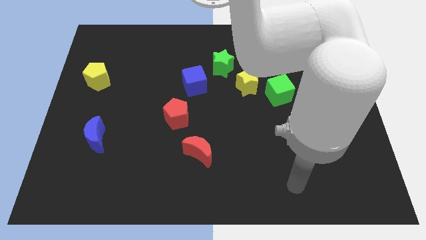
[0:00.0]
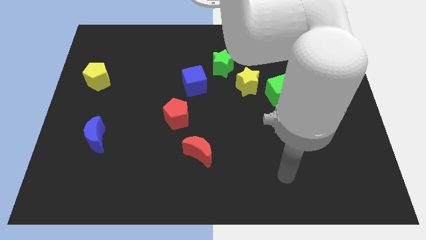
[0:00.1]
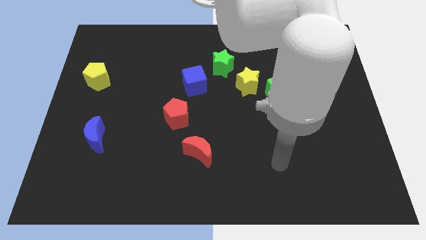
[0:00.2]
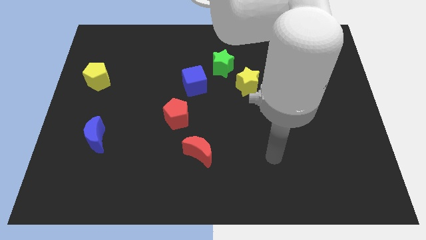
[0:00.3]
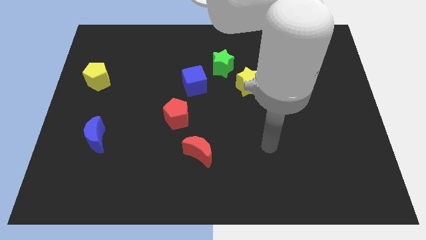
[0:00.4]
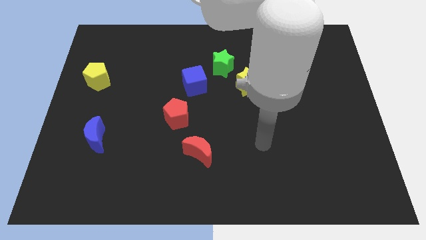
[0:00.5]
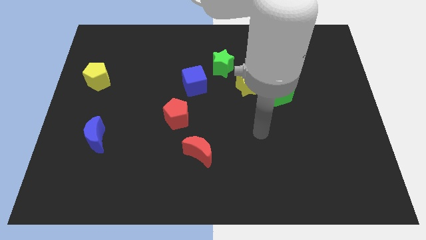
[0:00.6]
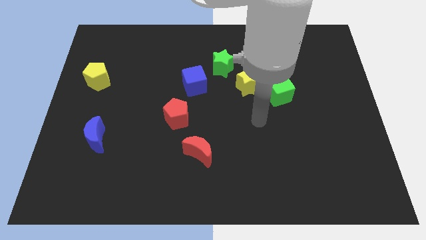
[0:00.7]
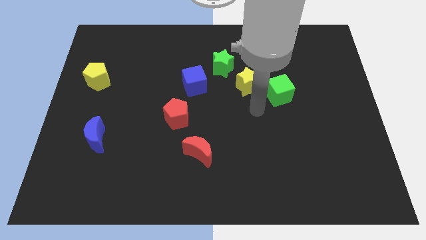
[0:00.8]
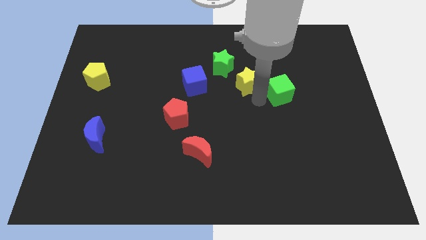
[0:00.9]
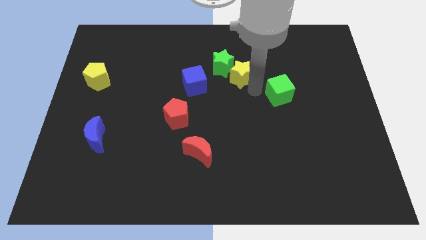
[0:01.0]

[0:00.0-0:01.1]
separate the green cube from the yellow star

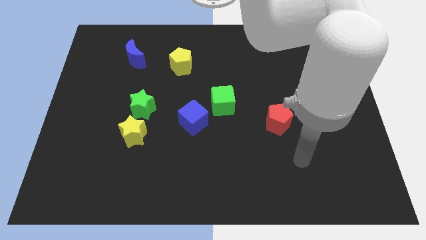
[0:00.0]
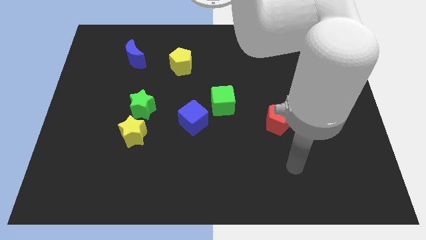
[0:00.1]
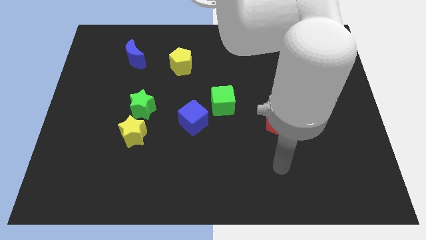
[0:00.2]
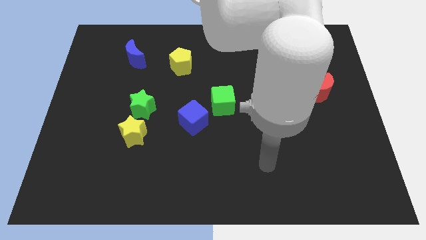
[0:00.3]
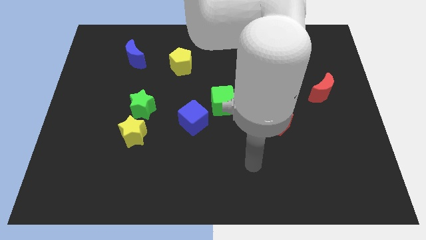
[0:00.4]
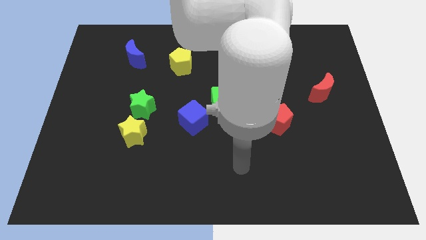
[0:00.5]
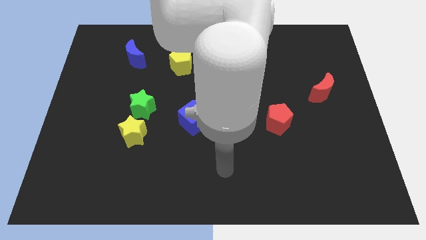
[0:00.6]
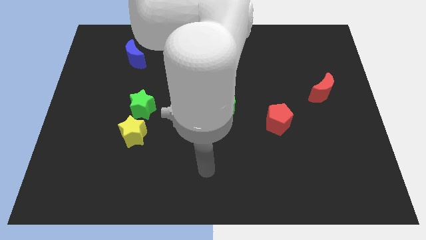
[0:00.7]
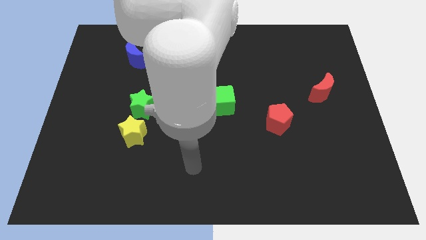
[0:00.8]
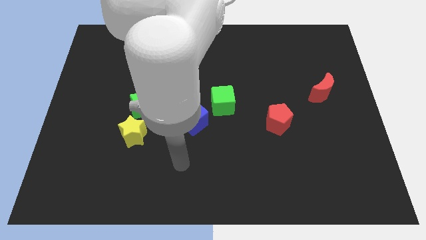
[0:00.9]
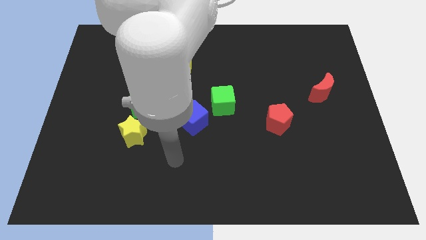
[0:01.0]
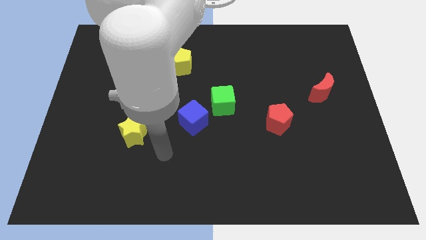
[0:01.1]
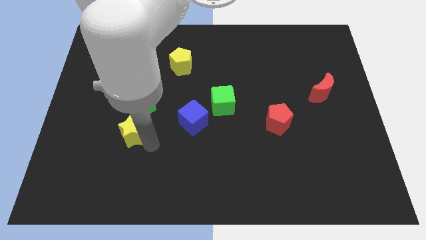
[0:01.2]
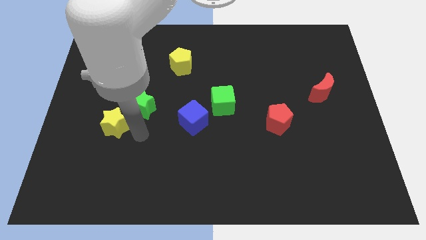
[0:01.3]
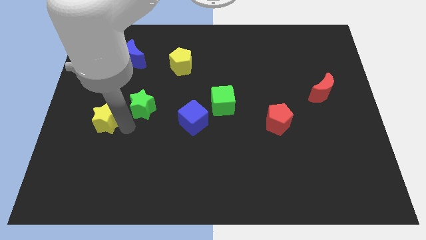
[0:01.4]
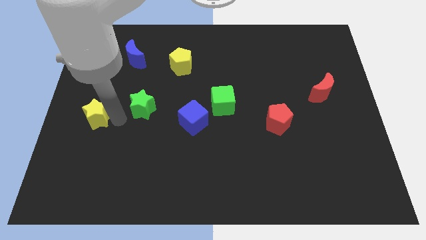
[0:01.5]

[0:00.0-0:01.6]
separate the green star from the yellow star

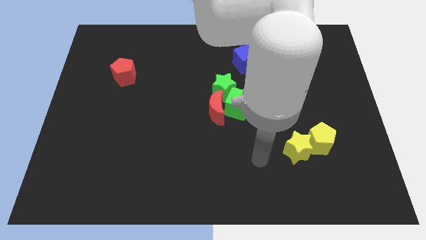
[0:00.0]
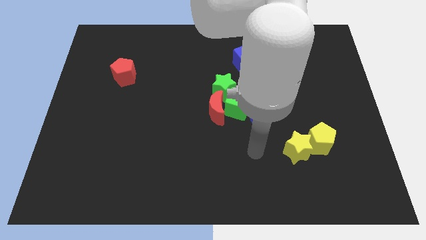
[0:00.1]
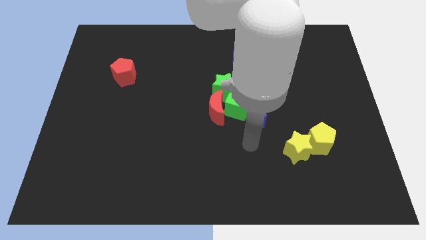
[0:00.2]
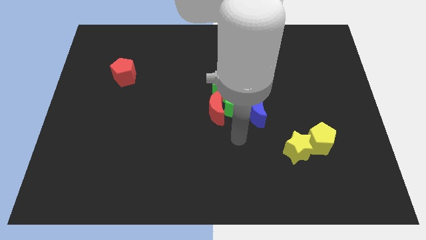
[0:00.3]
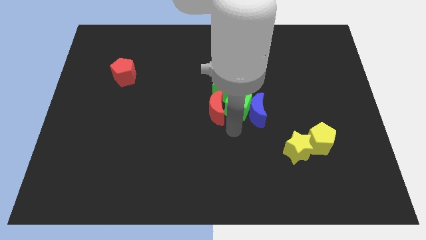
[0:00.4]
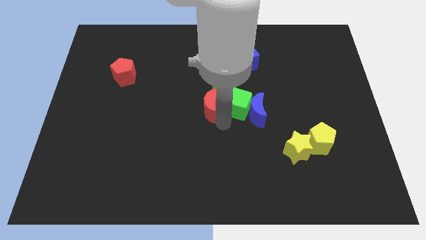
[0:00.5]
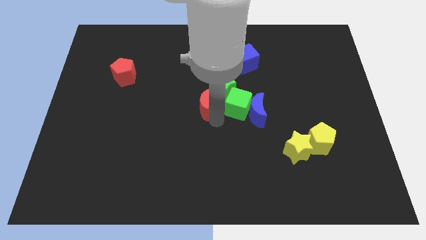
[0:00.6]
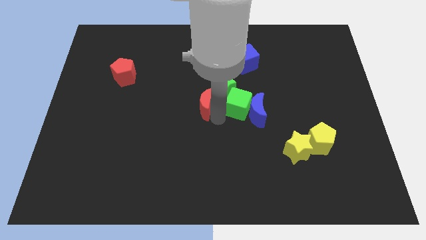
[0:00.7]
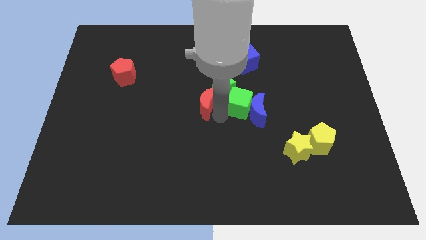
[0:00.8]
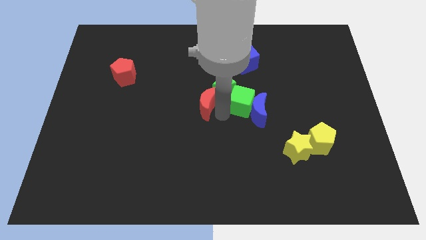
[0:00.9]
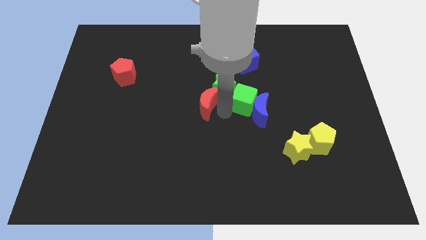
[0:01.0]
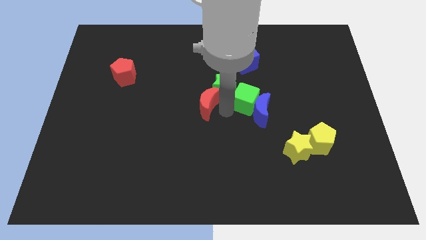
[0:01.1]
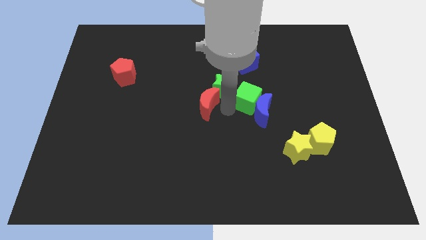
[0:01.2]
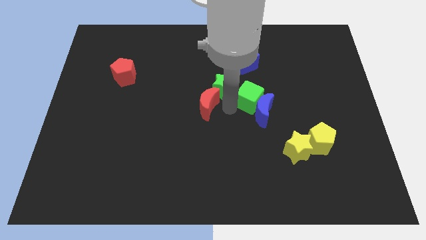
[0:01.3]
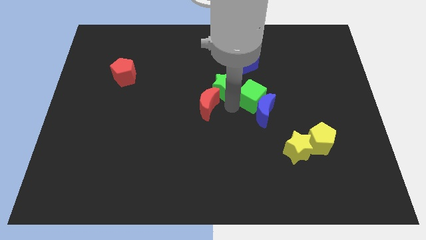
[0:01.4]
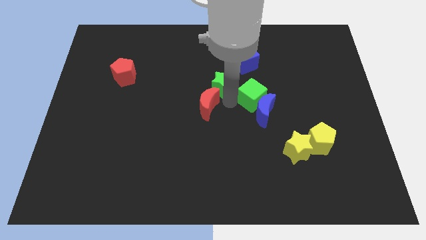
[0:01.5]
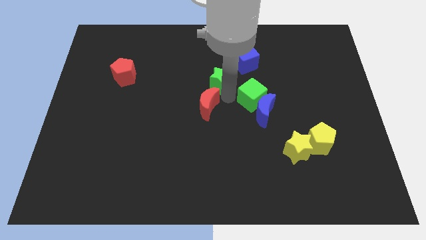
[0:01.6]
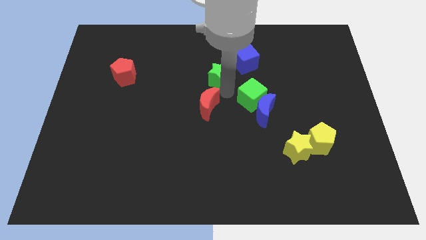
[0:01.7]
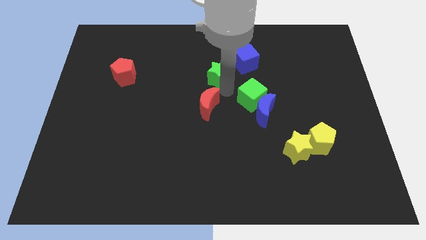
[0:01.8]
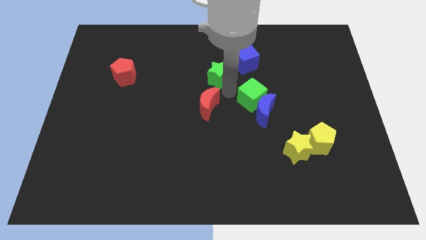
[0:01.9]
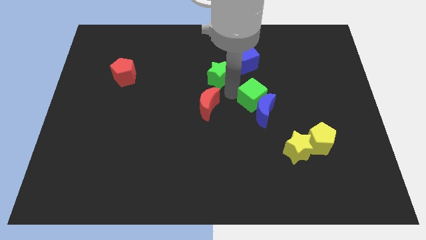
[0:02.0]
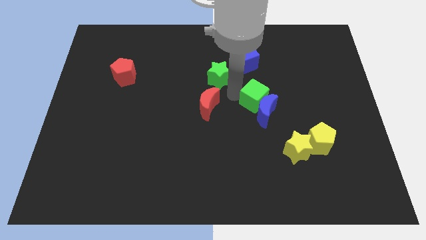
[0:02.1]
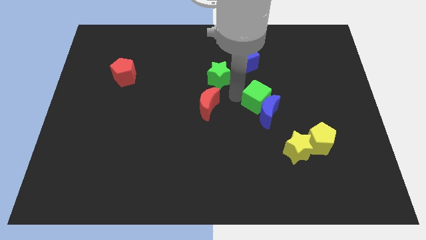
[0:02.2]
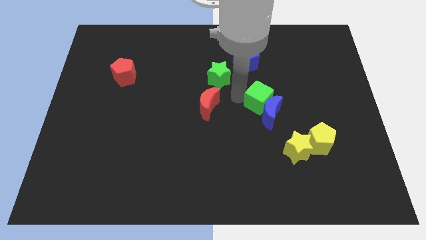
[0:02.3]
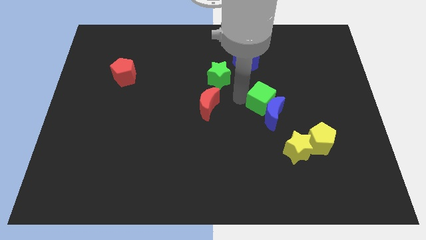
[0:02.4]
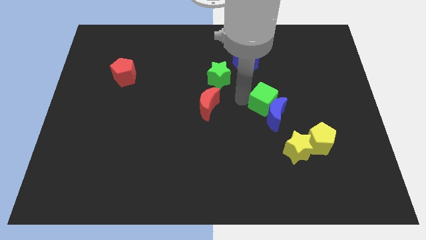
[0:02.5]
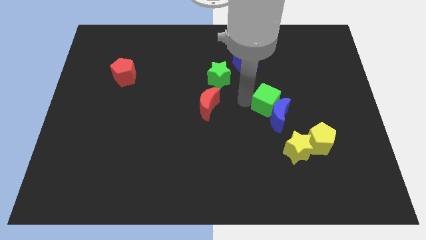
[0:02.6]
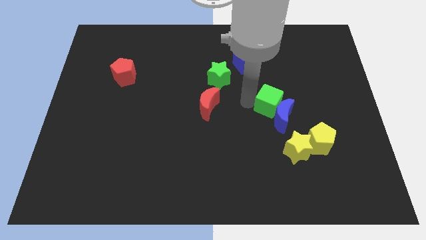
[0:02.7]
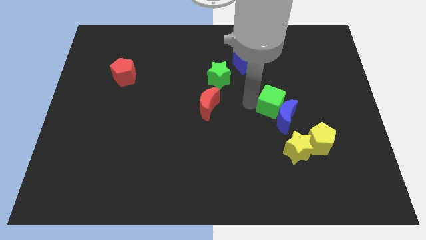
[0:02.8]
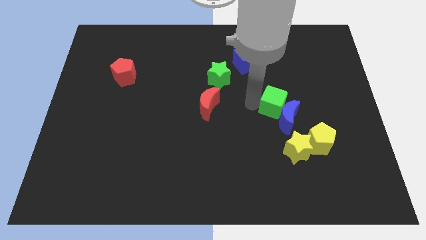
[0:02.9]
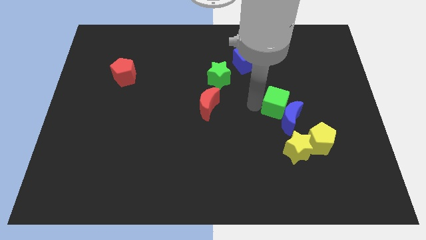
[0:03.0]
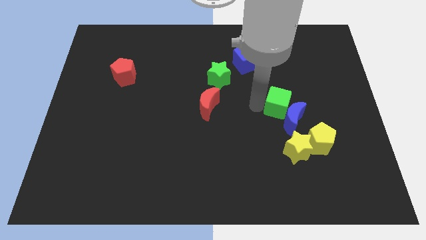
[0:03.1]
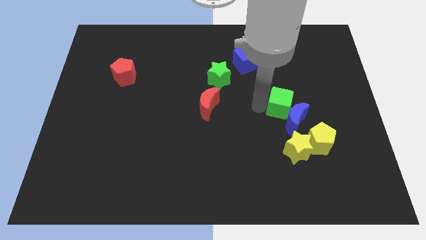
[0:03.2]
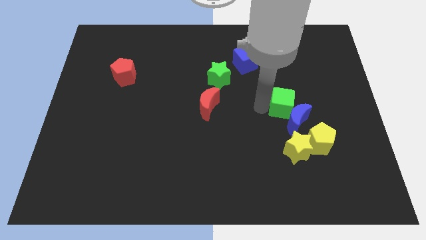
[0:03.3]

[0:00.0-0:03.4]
separate the green cube from the blue moon, red moon, and green star

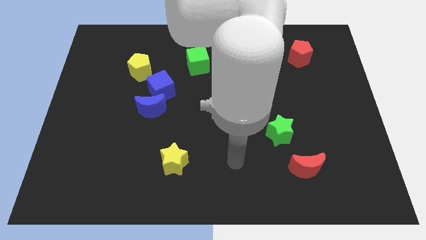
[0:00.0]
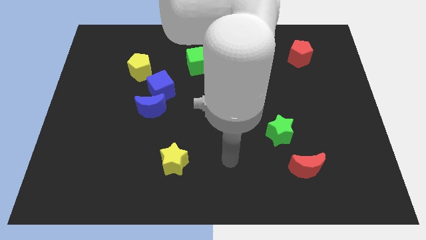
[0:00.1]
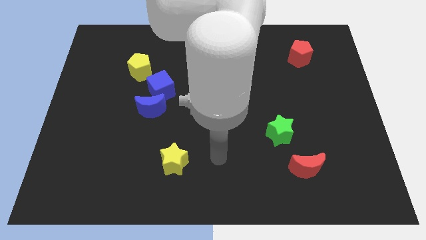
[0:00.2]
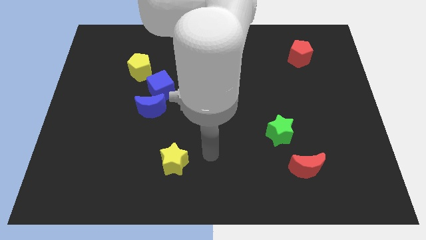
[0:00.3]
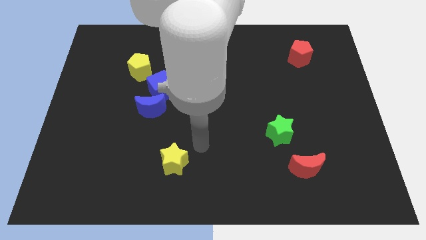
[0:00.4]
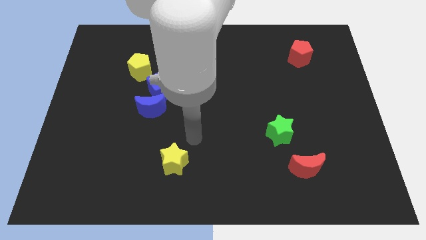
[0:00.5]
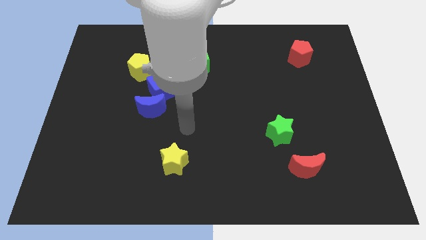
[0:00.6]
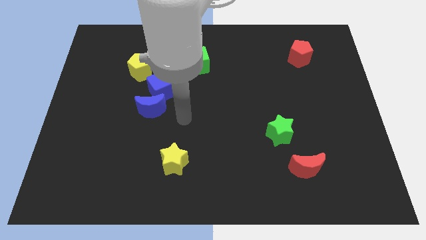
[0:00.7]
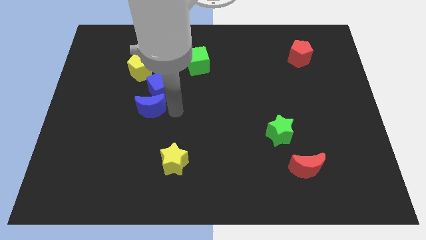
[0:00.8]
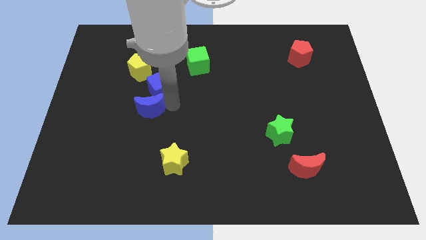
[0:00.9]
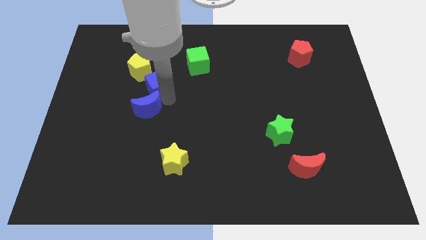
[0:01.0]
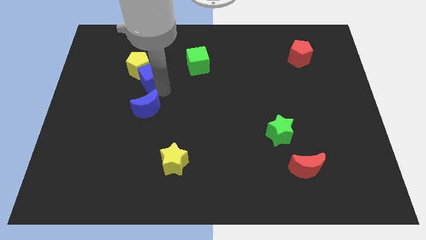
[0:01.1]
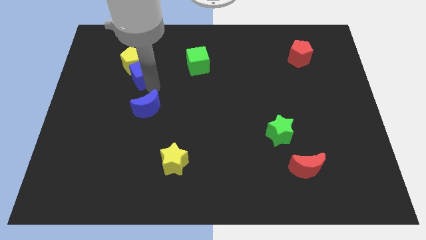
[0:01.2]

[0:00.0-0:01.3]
separate the blue moon from the blue cube

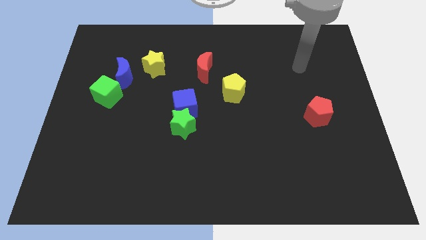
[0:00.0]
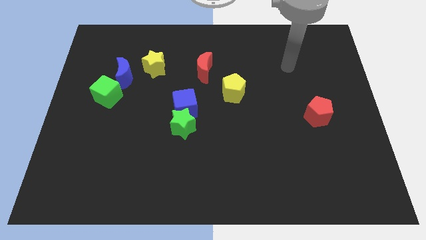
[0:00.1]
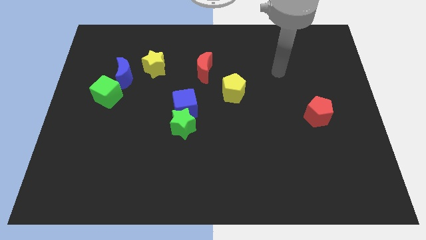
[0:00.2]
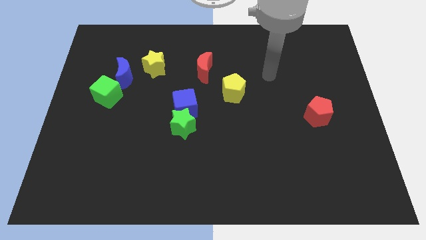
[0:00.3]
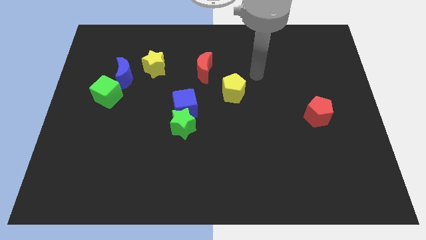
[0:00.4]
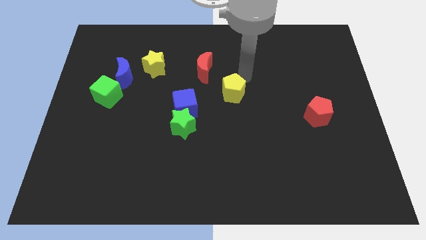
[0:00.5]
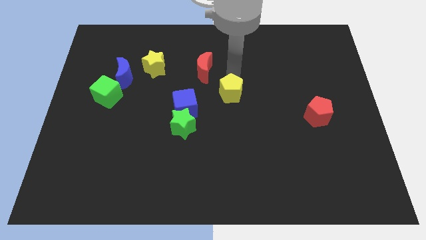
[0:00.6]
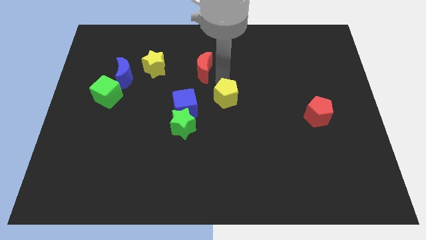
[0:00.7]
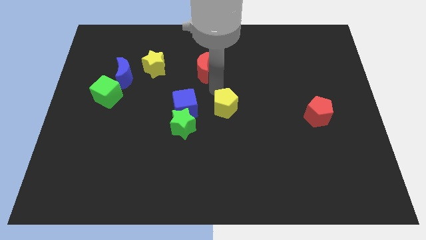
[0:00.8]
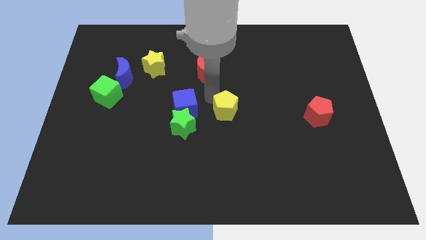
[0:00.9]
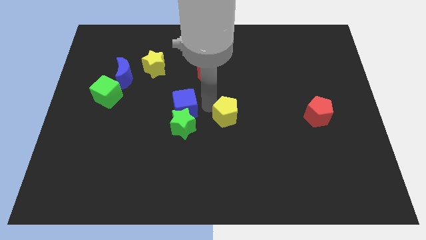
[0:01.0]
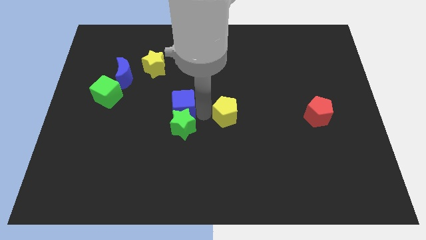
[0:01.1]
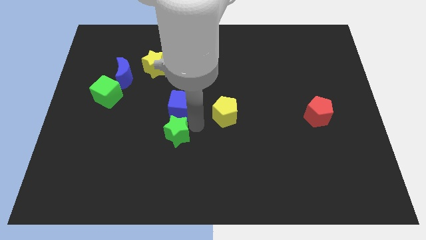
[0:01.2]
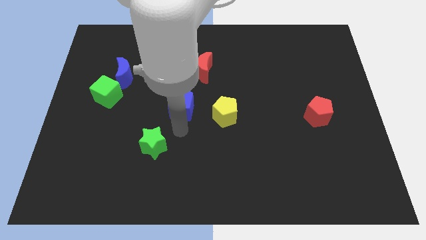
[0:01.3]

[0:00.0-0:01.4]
pull the blue cube apart from the green star

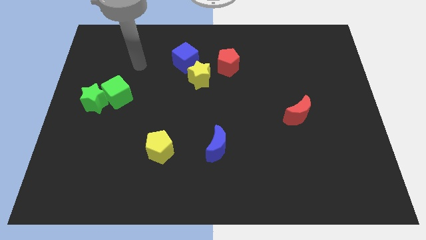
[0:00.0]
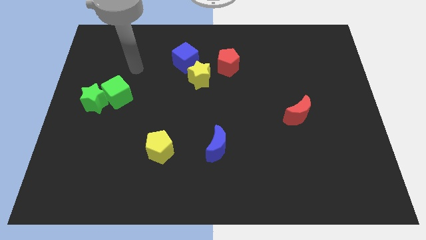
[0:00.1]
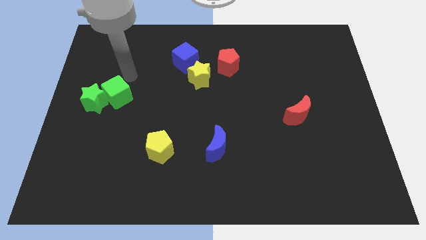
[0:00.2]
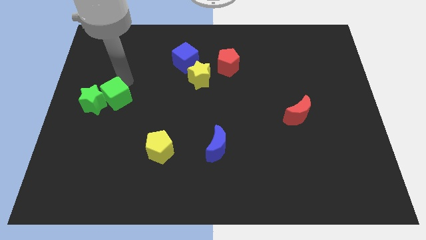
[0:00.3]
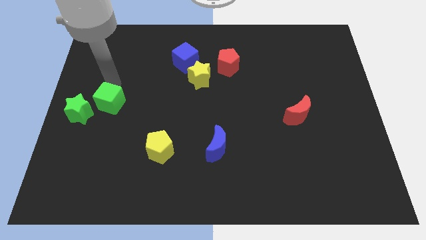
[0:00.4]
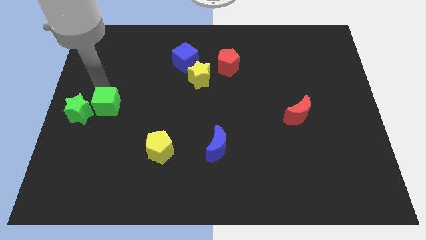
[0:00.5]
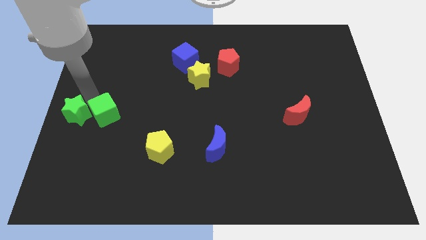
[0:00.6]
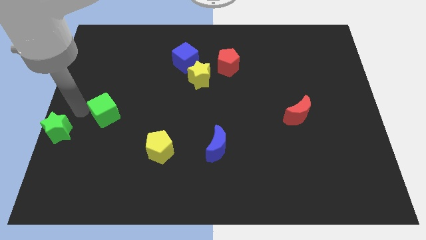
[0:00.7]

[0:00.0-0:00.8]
separate the green cube from the green star
